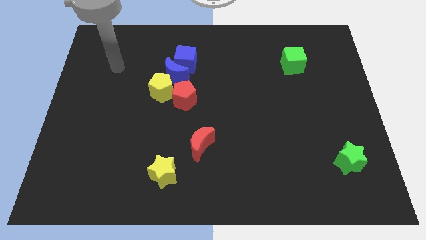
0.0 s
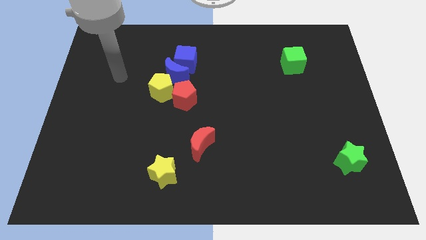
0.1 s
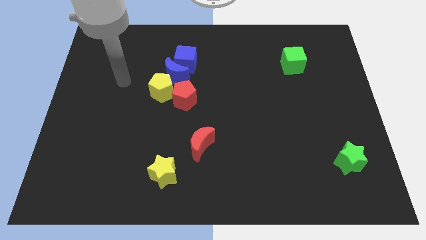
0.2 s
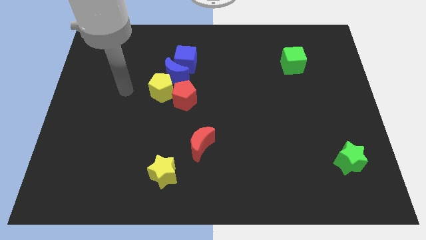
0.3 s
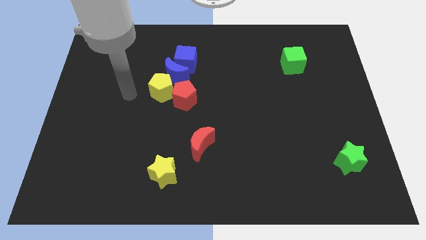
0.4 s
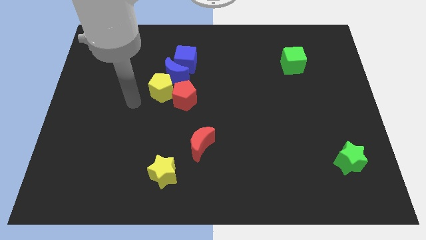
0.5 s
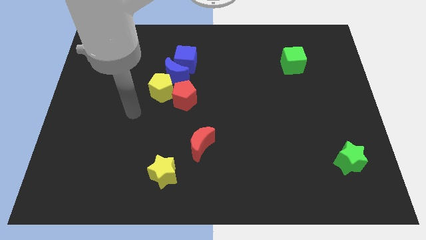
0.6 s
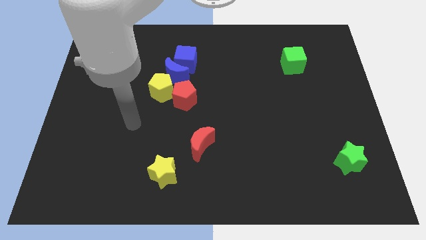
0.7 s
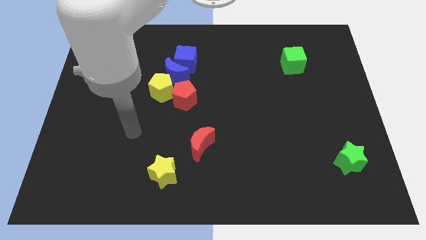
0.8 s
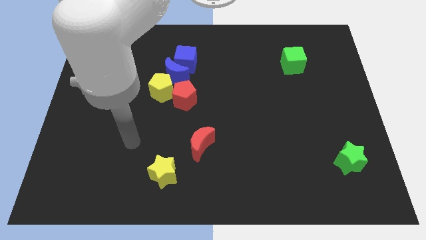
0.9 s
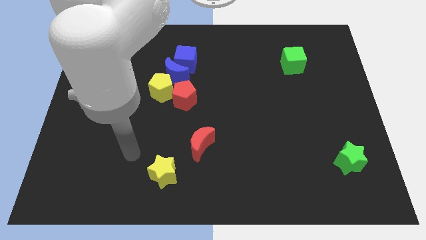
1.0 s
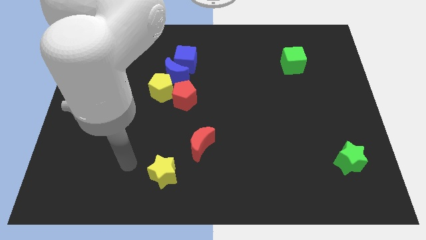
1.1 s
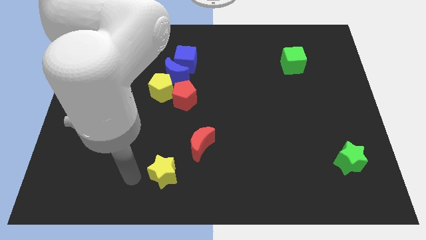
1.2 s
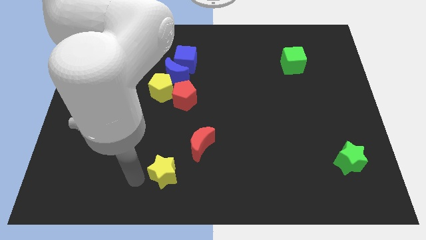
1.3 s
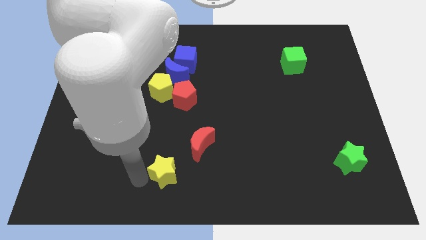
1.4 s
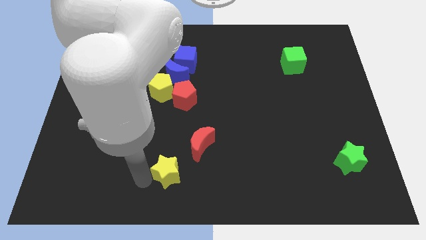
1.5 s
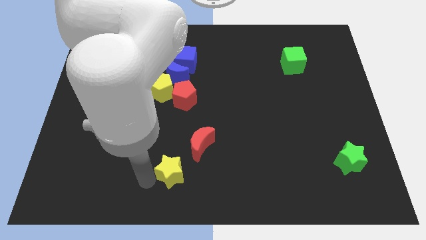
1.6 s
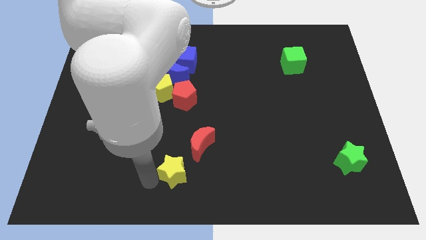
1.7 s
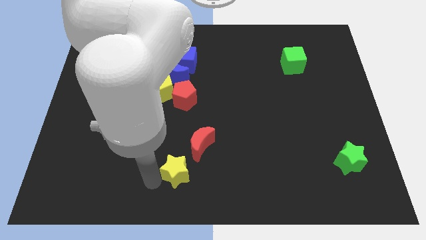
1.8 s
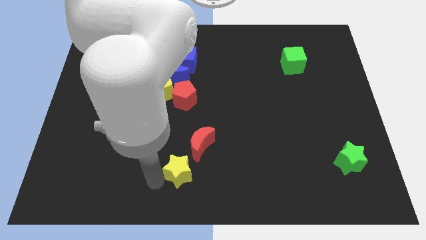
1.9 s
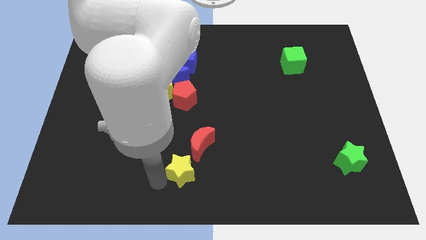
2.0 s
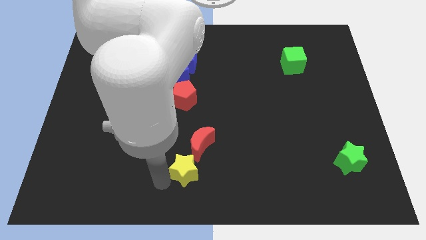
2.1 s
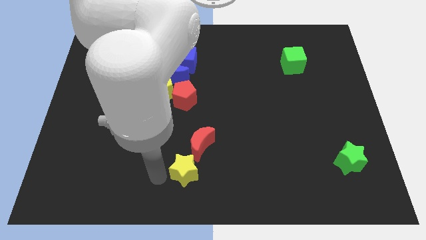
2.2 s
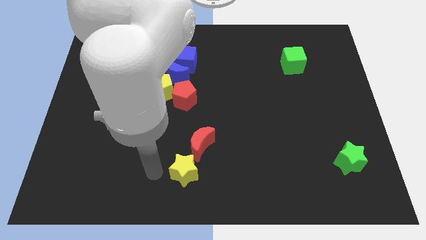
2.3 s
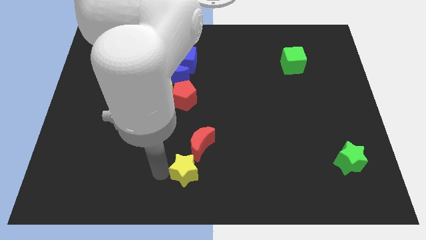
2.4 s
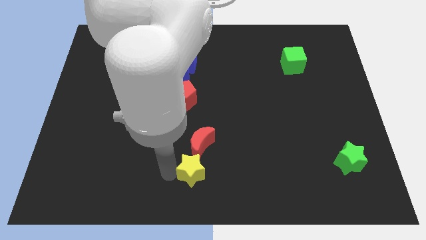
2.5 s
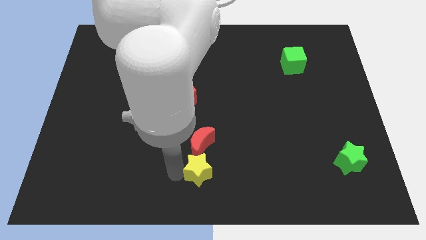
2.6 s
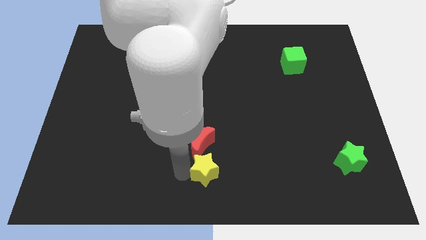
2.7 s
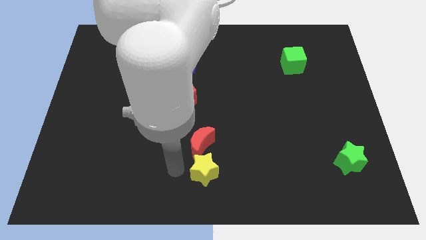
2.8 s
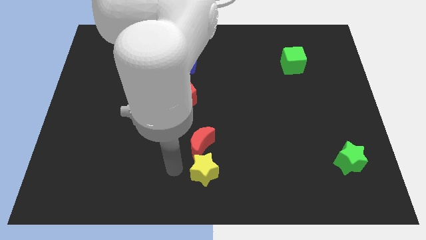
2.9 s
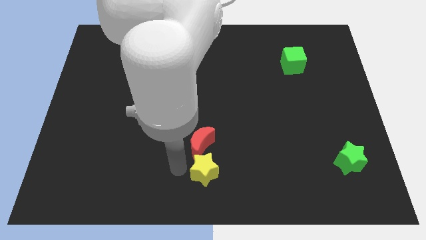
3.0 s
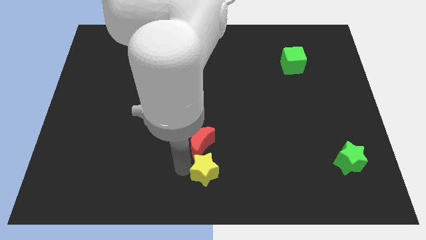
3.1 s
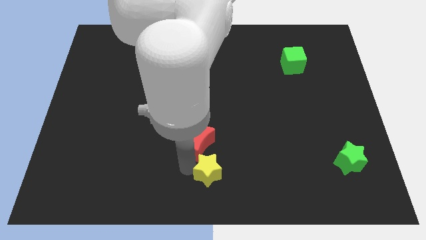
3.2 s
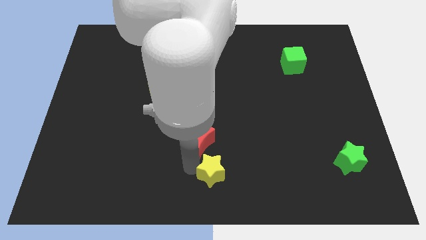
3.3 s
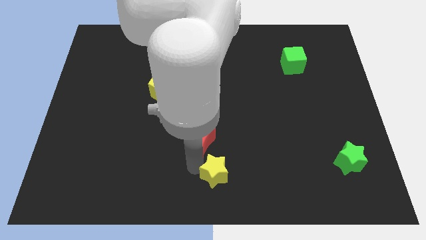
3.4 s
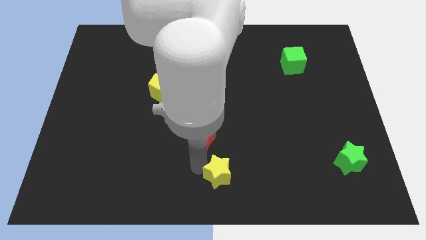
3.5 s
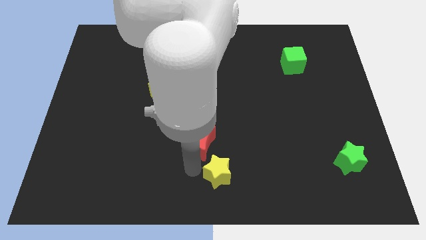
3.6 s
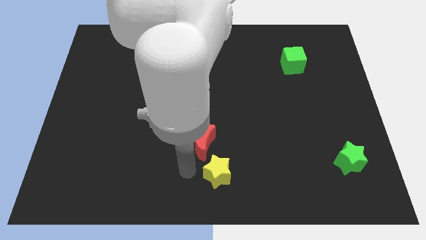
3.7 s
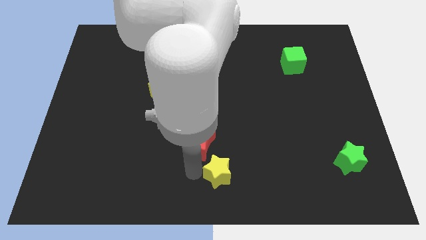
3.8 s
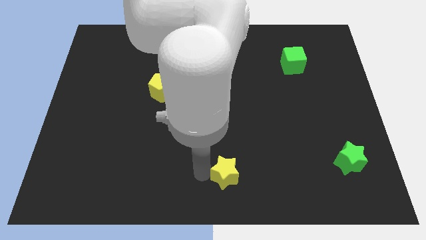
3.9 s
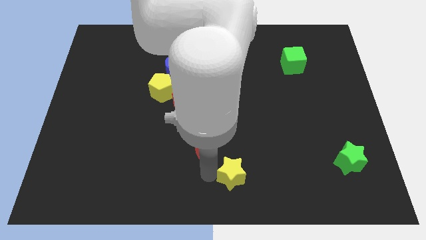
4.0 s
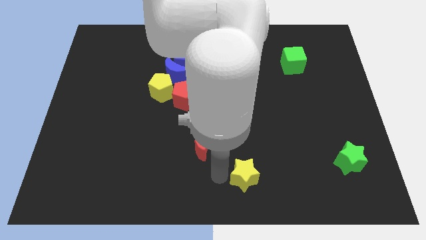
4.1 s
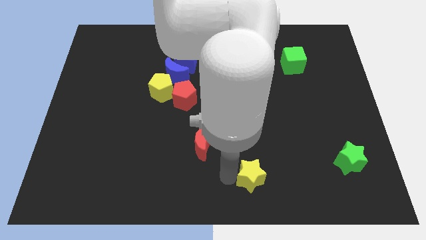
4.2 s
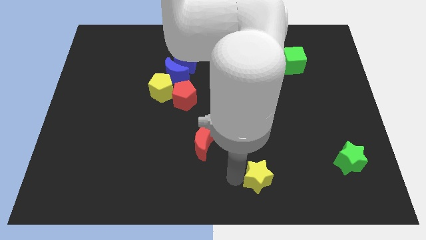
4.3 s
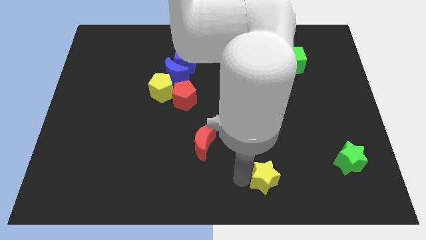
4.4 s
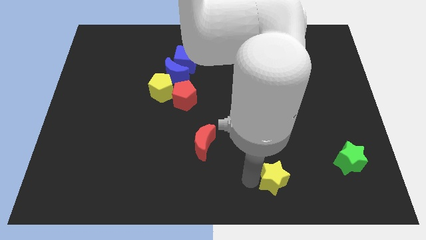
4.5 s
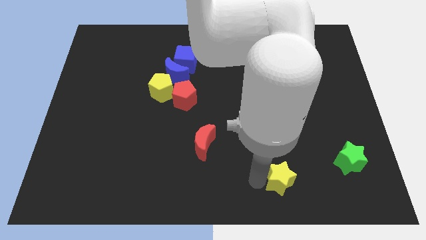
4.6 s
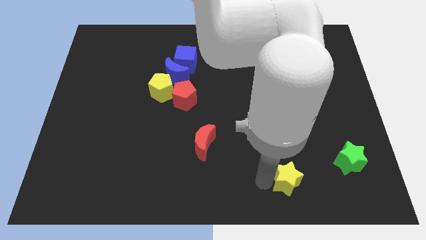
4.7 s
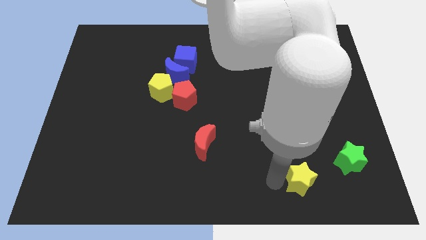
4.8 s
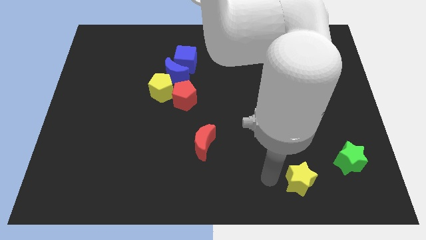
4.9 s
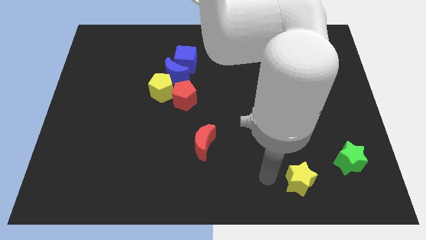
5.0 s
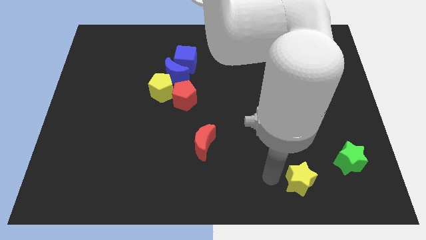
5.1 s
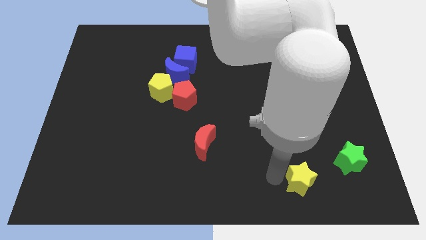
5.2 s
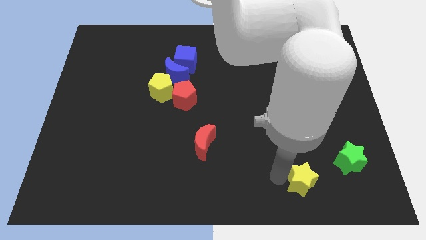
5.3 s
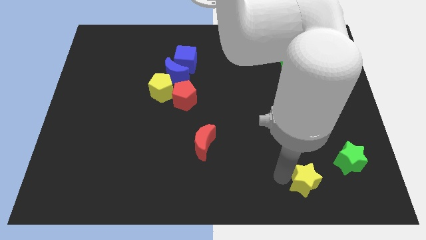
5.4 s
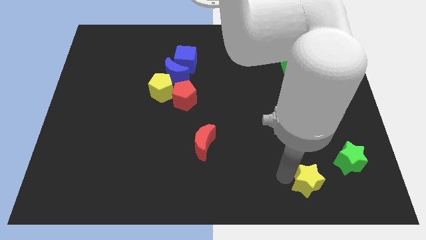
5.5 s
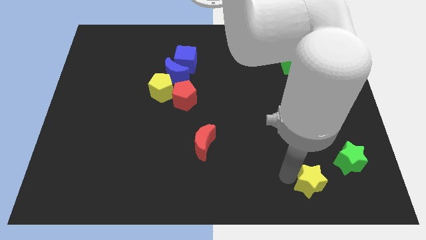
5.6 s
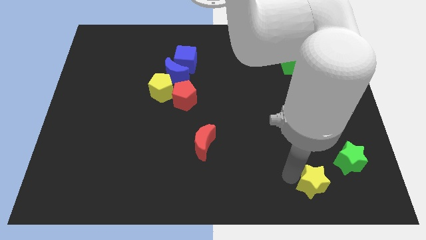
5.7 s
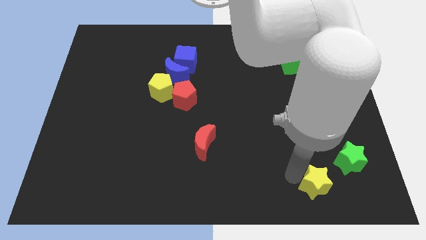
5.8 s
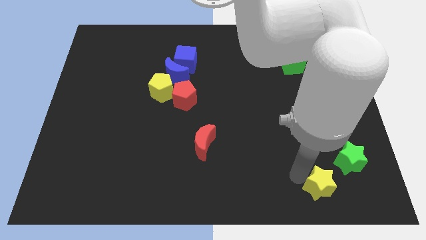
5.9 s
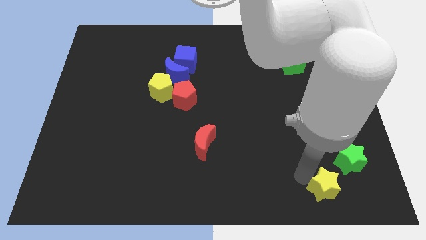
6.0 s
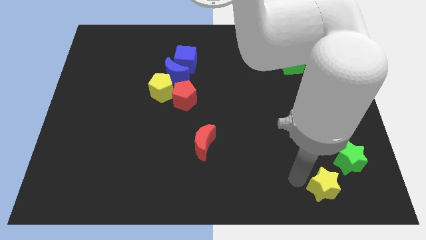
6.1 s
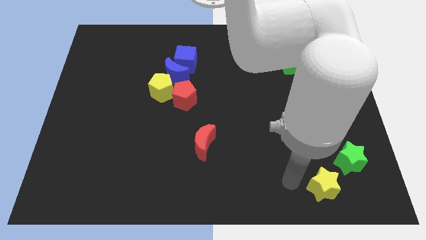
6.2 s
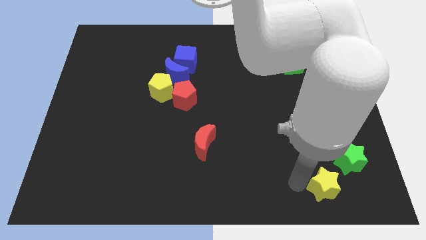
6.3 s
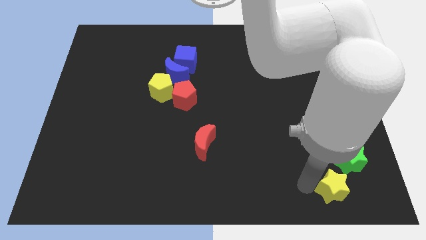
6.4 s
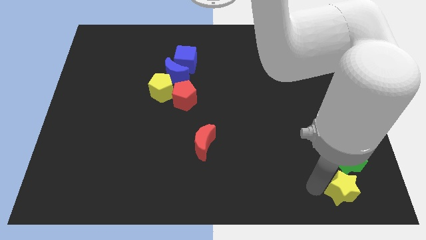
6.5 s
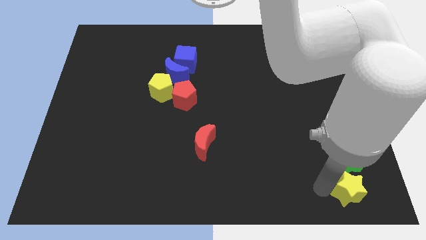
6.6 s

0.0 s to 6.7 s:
put the yellow star to the bottom right of the board

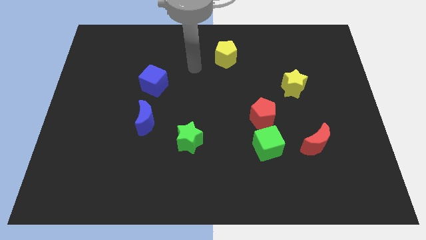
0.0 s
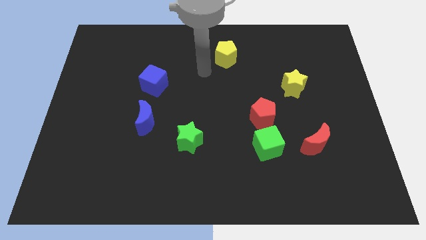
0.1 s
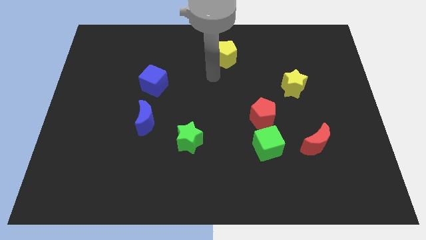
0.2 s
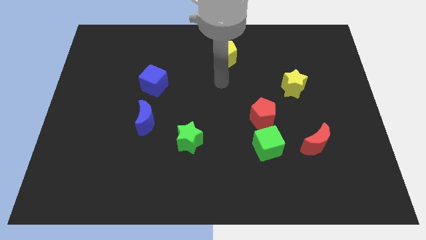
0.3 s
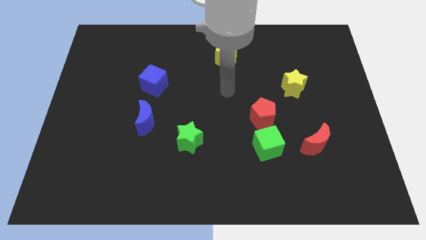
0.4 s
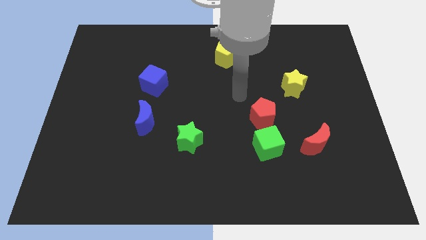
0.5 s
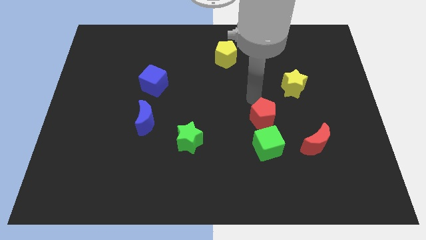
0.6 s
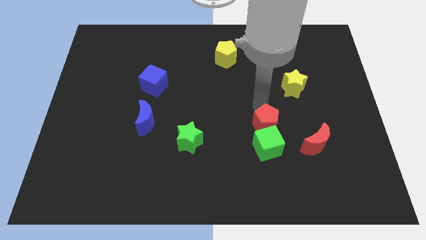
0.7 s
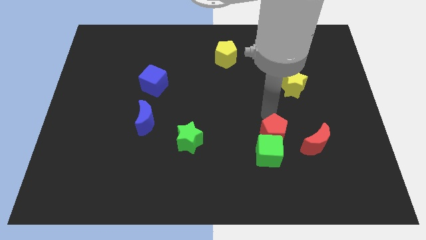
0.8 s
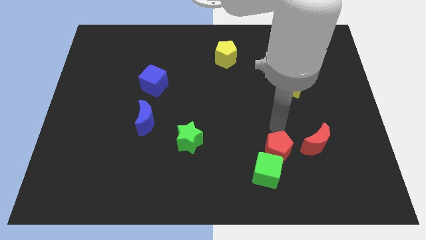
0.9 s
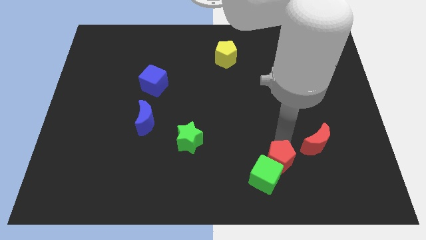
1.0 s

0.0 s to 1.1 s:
slide the green cube to the bottom side
